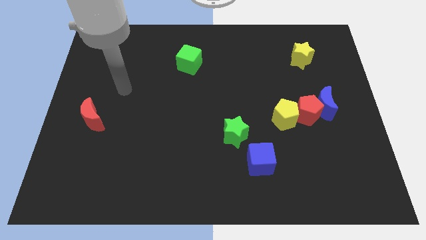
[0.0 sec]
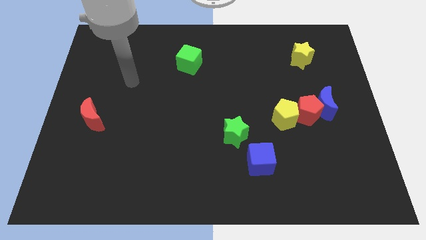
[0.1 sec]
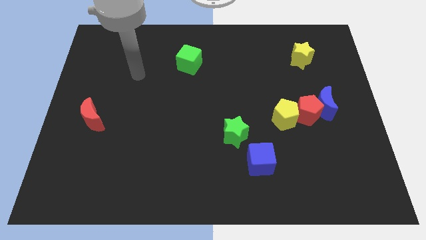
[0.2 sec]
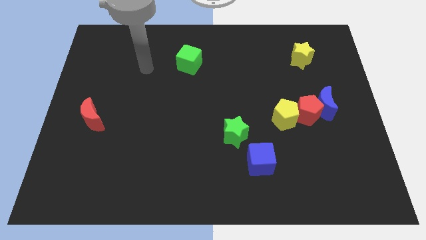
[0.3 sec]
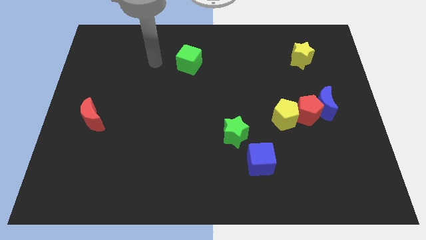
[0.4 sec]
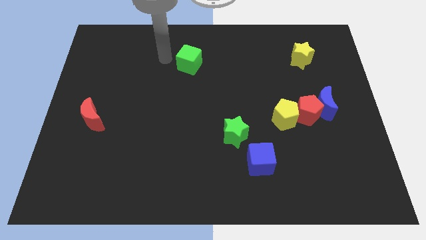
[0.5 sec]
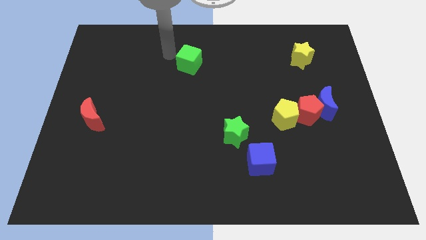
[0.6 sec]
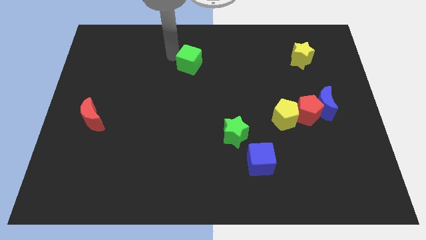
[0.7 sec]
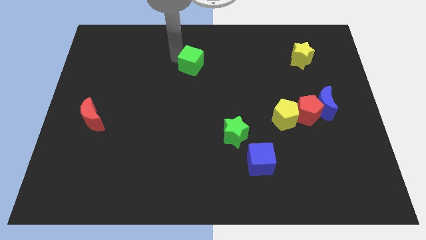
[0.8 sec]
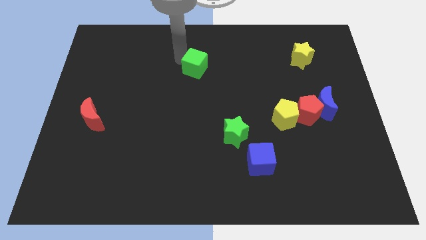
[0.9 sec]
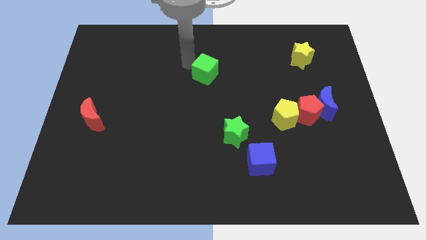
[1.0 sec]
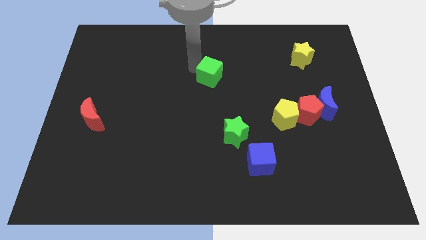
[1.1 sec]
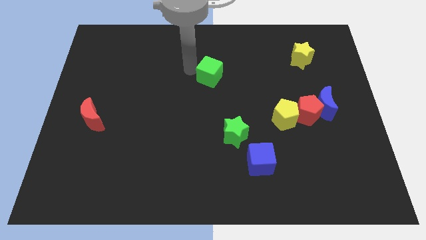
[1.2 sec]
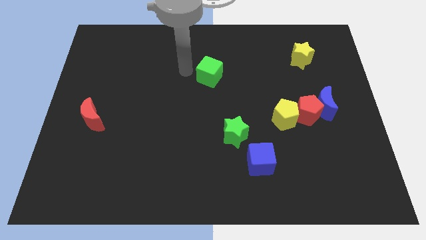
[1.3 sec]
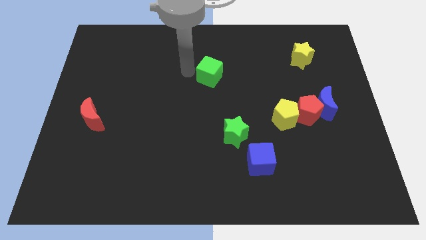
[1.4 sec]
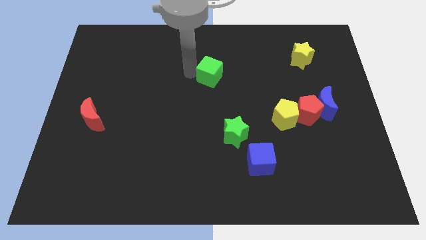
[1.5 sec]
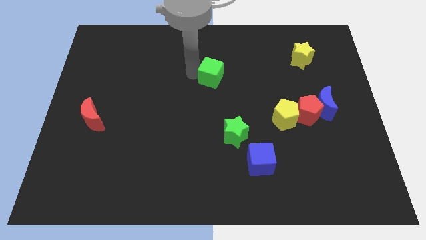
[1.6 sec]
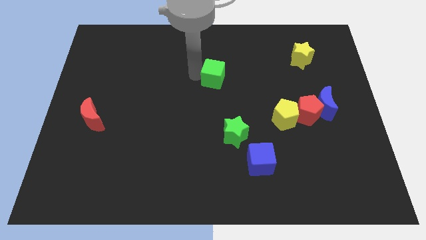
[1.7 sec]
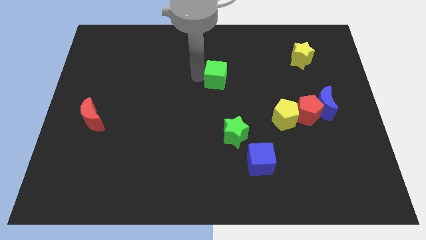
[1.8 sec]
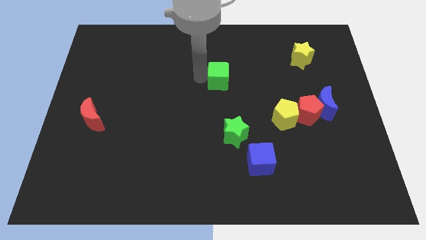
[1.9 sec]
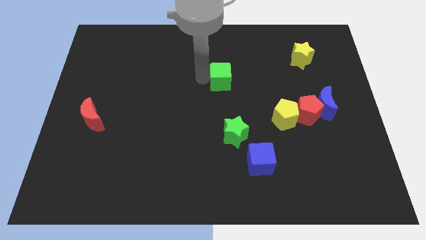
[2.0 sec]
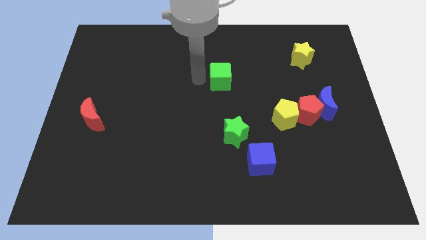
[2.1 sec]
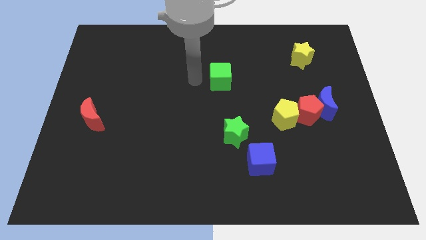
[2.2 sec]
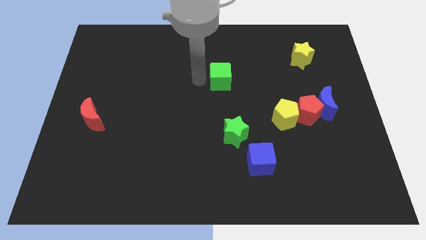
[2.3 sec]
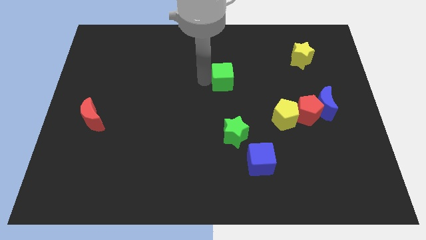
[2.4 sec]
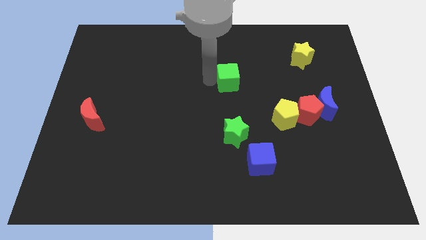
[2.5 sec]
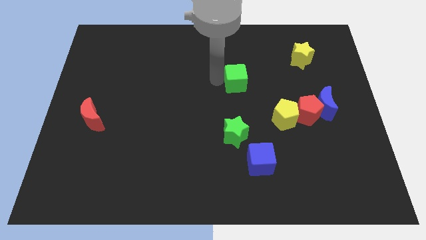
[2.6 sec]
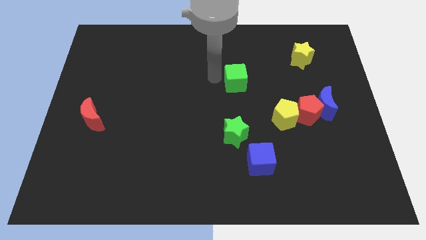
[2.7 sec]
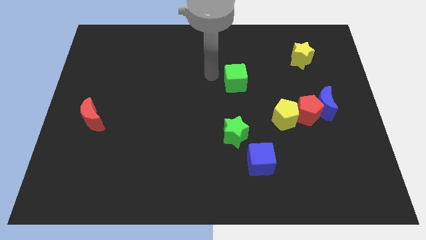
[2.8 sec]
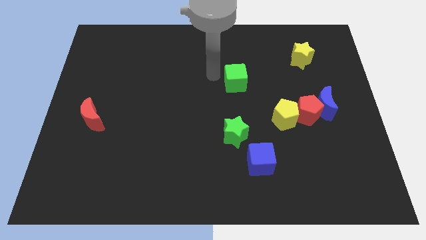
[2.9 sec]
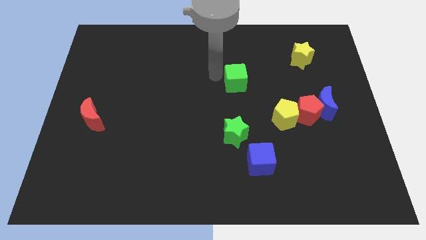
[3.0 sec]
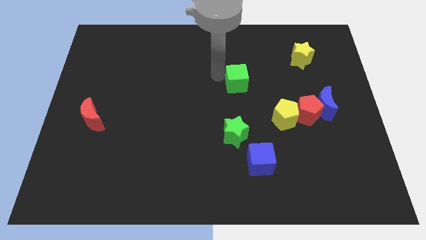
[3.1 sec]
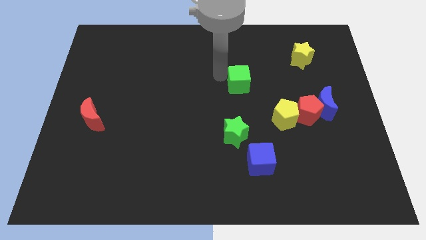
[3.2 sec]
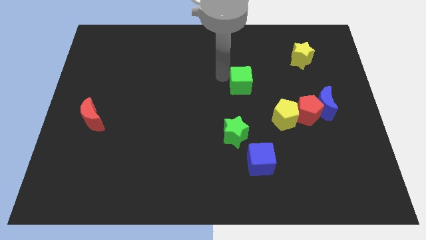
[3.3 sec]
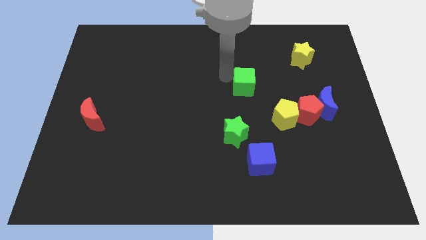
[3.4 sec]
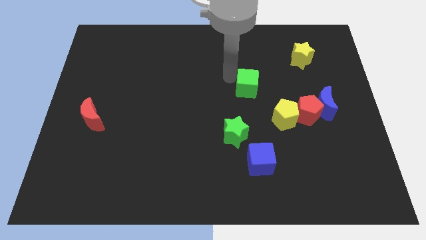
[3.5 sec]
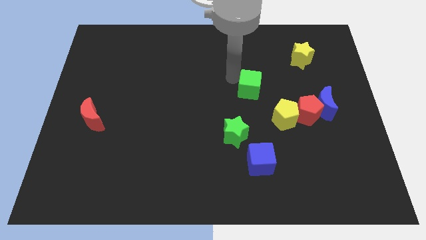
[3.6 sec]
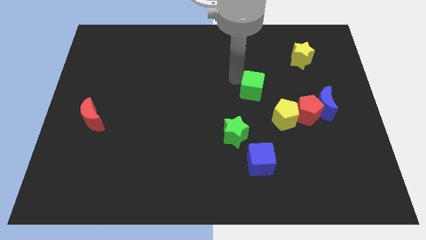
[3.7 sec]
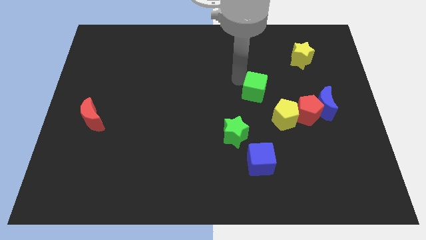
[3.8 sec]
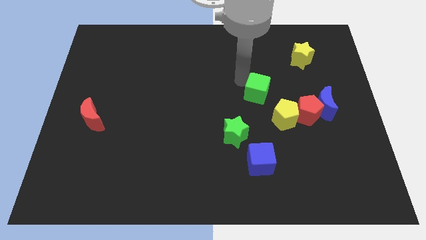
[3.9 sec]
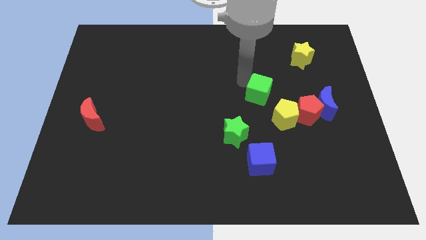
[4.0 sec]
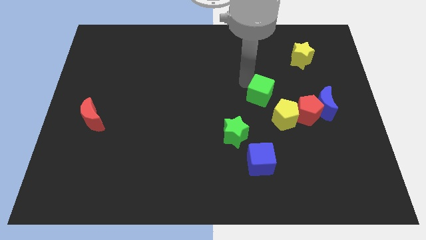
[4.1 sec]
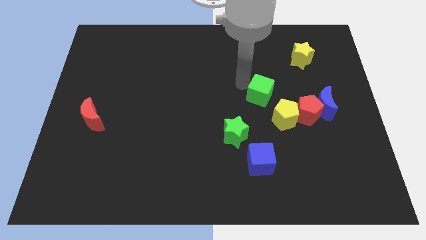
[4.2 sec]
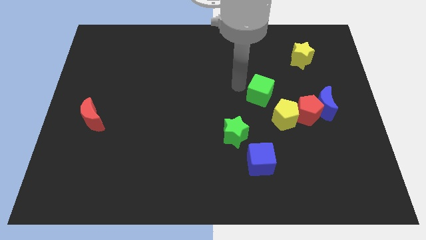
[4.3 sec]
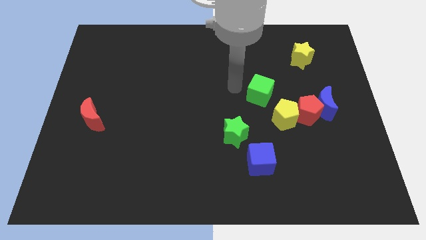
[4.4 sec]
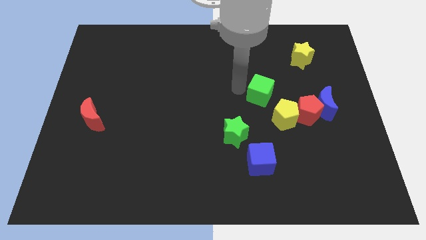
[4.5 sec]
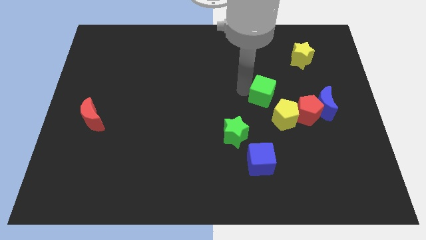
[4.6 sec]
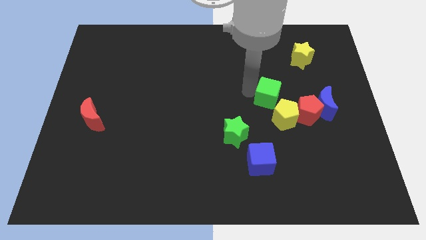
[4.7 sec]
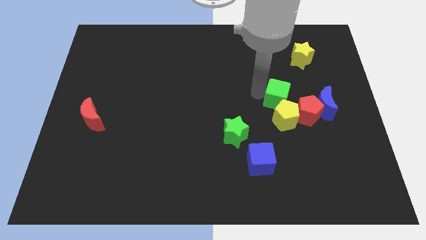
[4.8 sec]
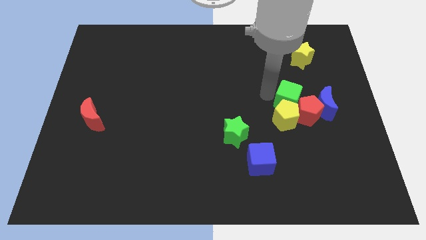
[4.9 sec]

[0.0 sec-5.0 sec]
push the green cube next to the red pentagon

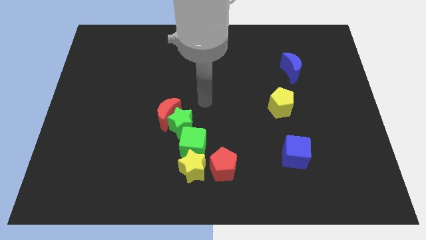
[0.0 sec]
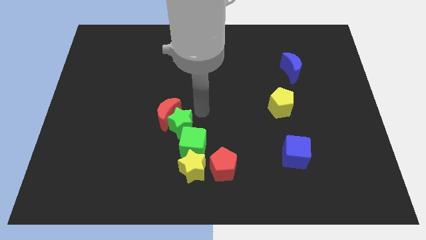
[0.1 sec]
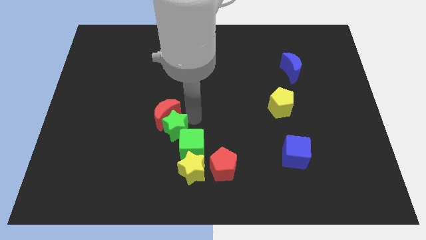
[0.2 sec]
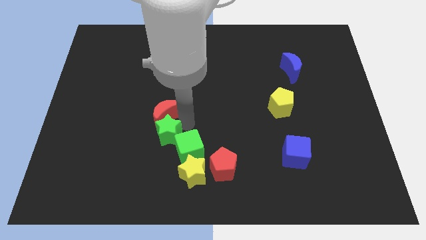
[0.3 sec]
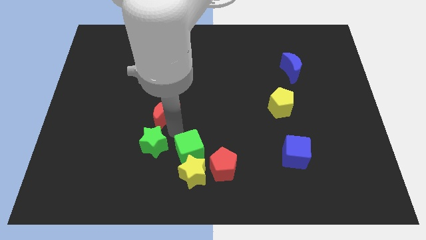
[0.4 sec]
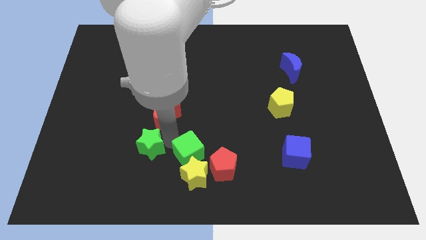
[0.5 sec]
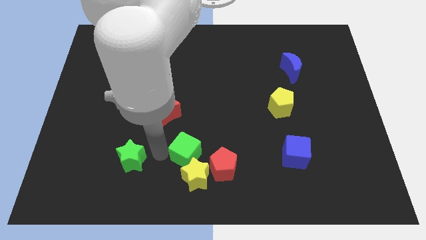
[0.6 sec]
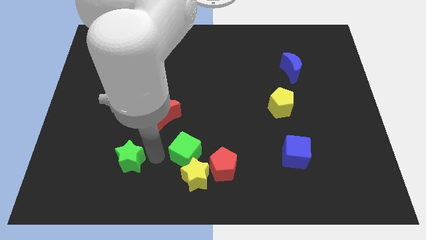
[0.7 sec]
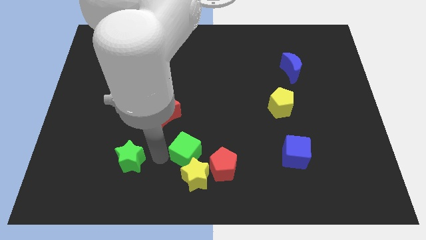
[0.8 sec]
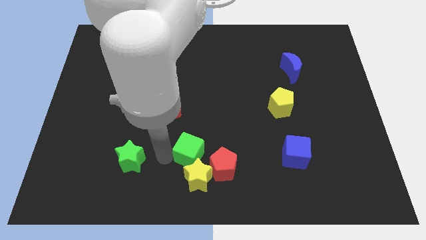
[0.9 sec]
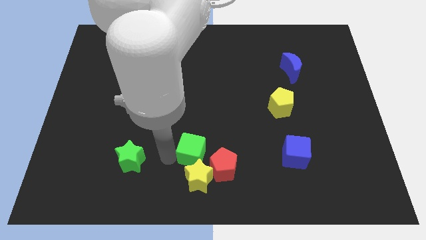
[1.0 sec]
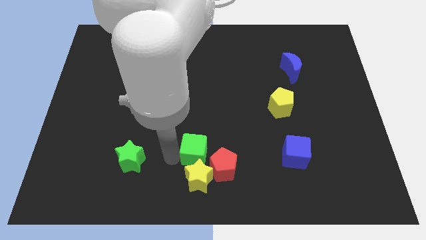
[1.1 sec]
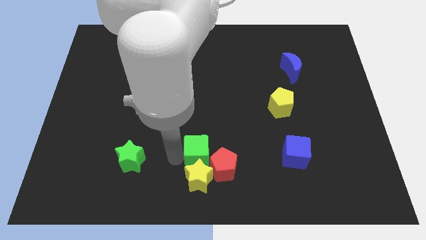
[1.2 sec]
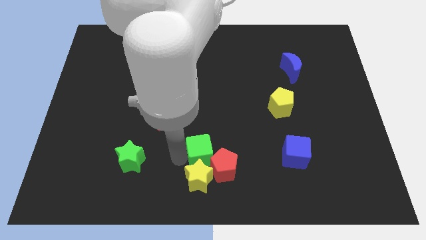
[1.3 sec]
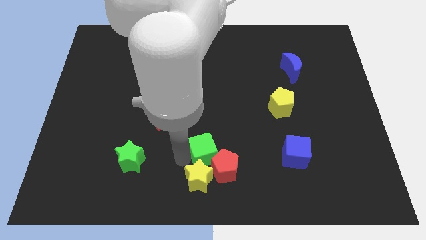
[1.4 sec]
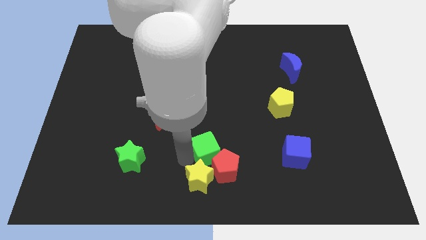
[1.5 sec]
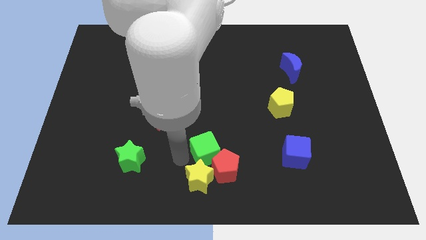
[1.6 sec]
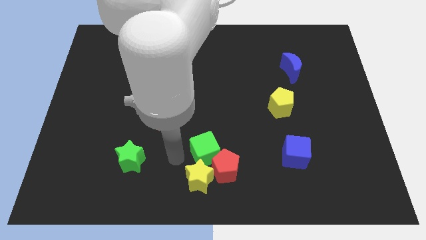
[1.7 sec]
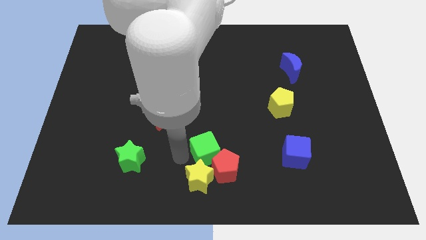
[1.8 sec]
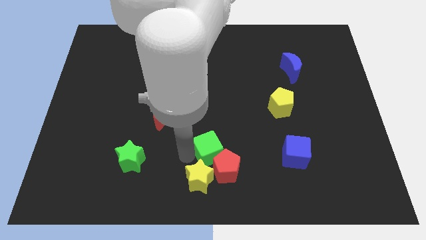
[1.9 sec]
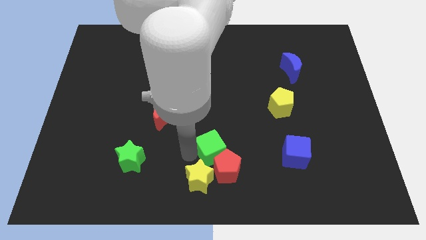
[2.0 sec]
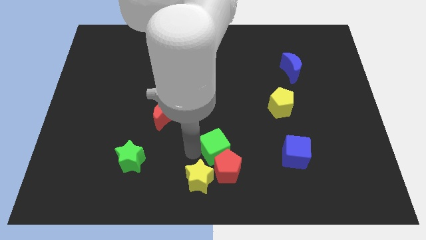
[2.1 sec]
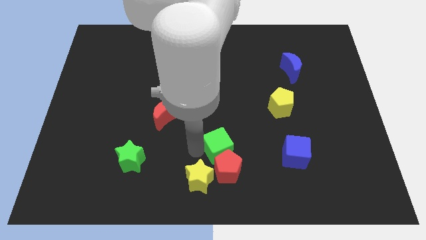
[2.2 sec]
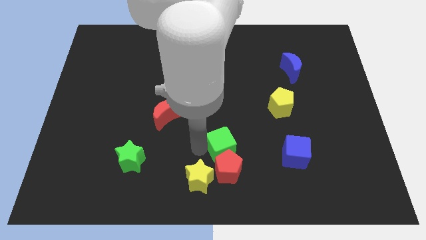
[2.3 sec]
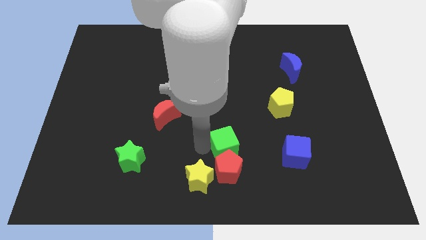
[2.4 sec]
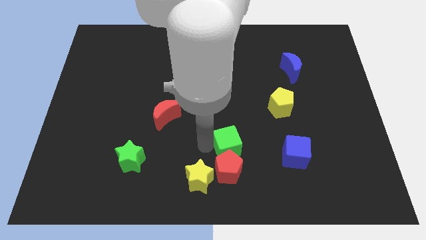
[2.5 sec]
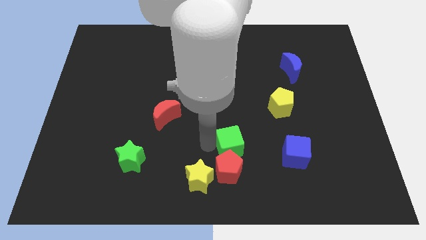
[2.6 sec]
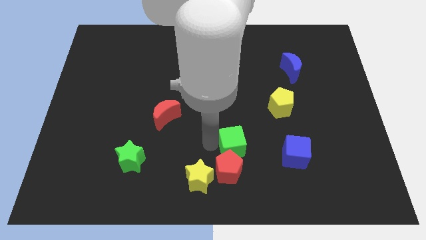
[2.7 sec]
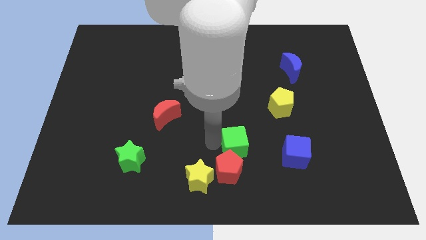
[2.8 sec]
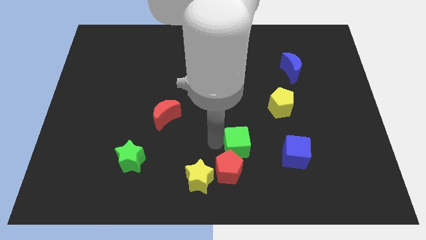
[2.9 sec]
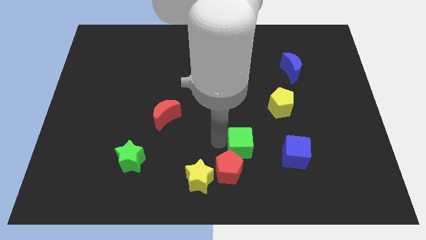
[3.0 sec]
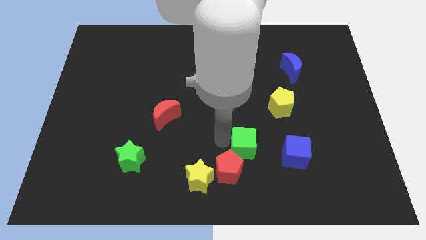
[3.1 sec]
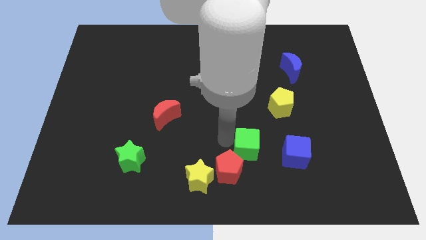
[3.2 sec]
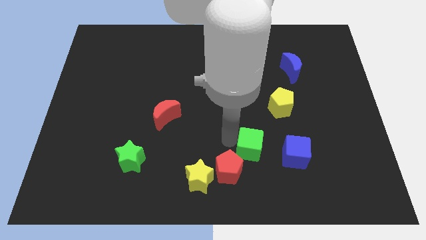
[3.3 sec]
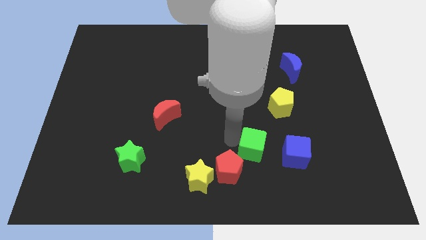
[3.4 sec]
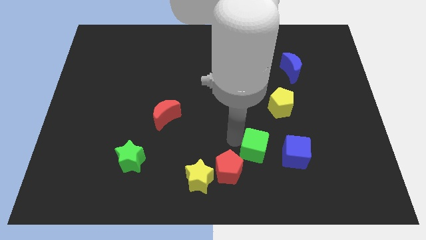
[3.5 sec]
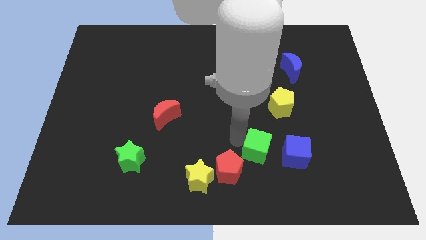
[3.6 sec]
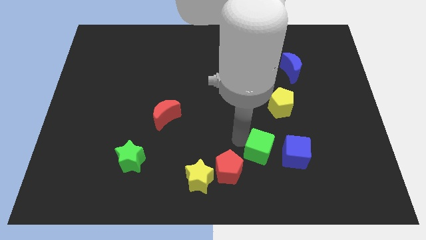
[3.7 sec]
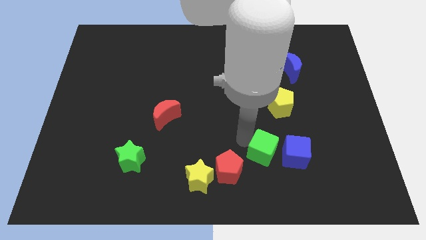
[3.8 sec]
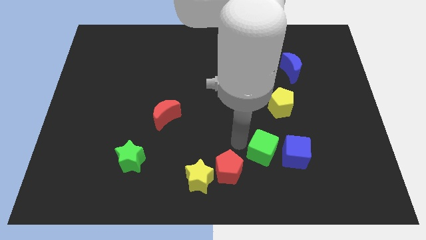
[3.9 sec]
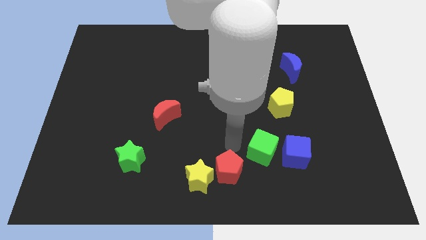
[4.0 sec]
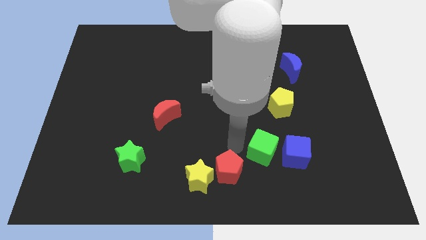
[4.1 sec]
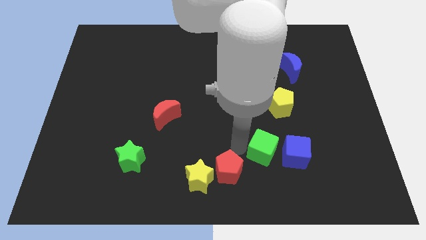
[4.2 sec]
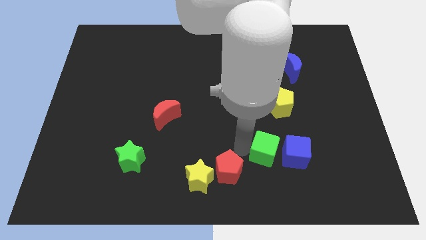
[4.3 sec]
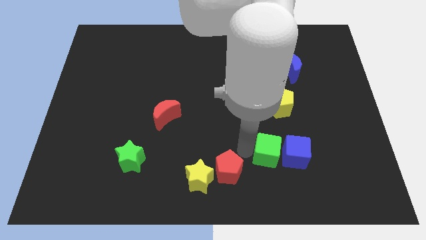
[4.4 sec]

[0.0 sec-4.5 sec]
push the green cube towards the blue cube
